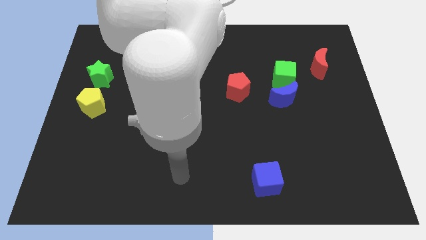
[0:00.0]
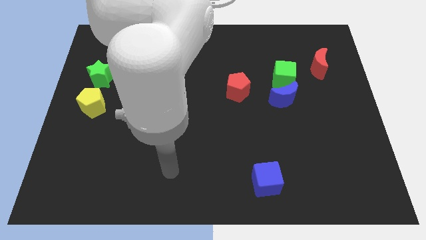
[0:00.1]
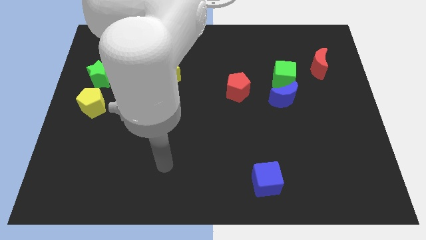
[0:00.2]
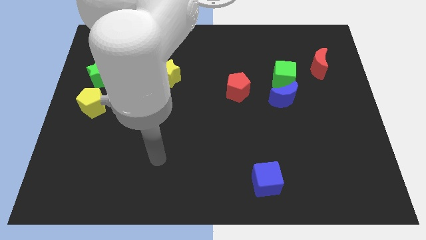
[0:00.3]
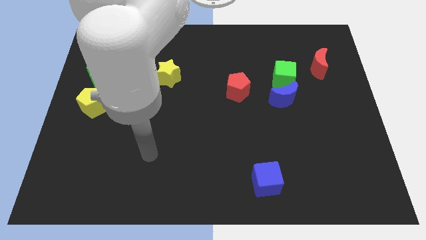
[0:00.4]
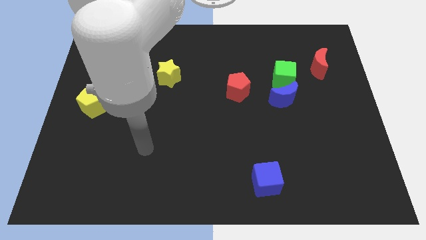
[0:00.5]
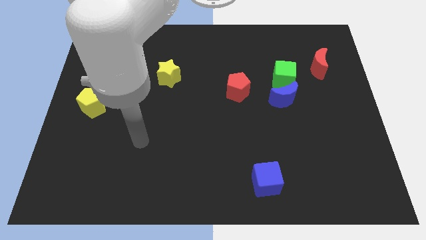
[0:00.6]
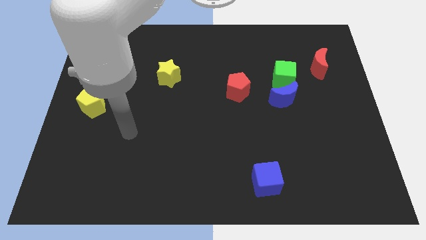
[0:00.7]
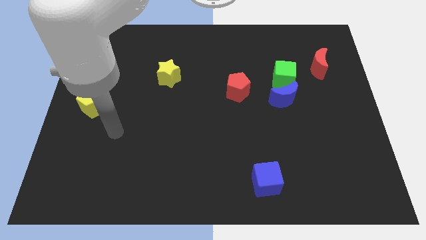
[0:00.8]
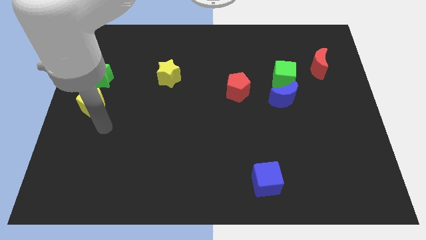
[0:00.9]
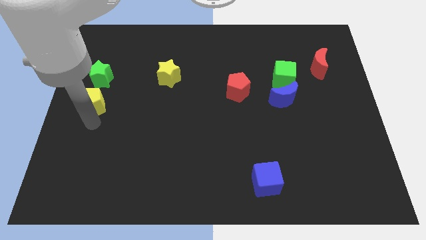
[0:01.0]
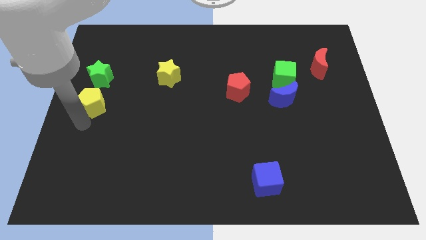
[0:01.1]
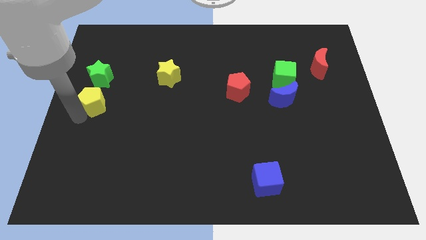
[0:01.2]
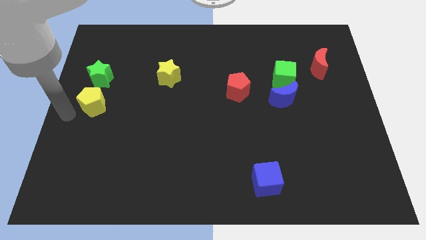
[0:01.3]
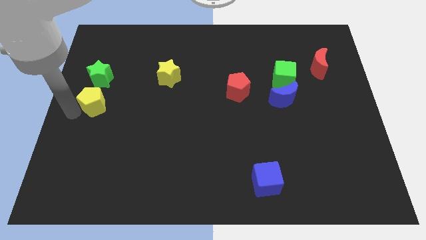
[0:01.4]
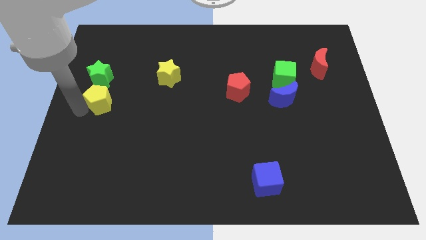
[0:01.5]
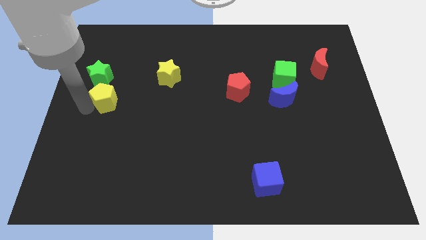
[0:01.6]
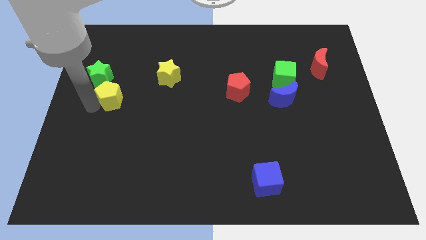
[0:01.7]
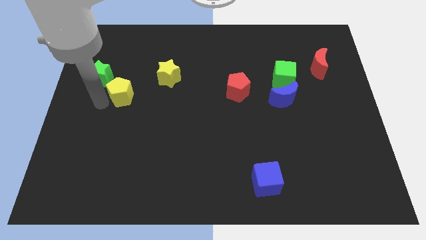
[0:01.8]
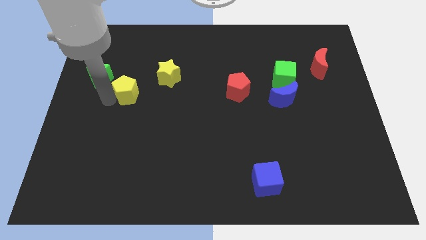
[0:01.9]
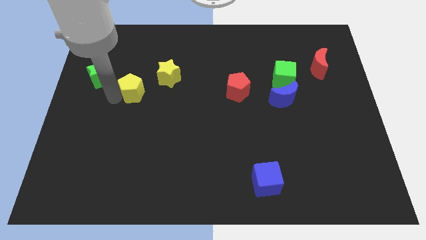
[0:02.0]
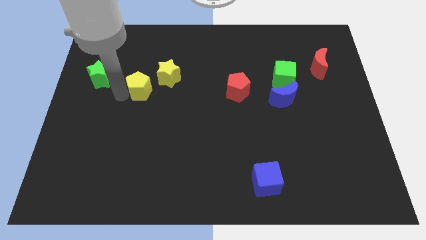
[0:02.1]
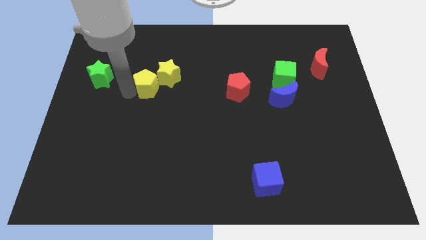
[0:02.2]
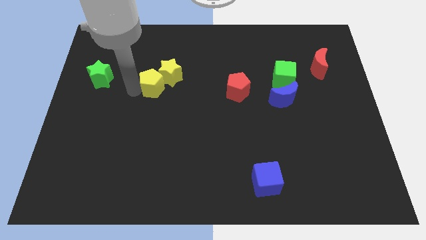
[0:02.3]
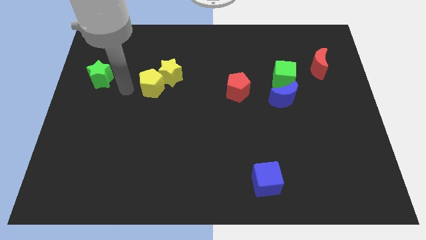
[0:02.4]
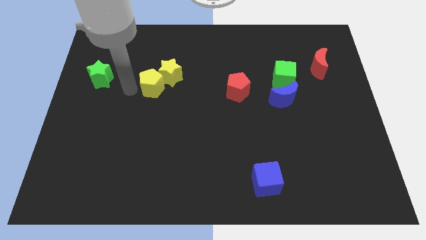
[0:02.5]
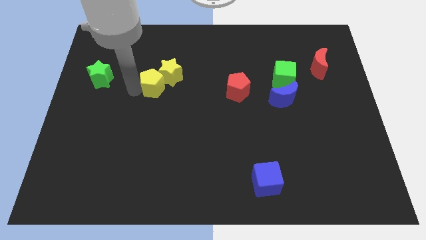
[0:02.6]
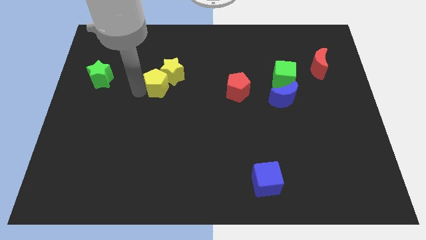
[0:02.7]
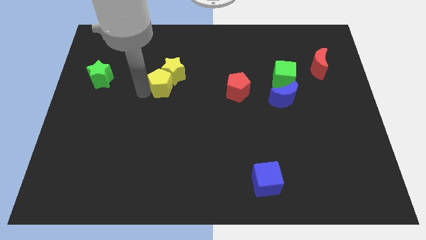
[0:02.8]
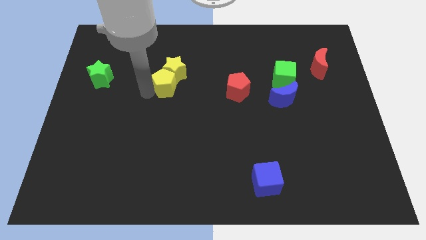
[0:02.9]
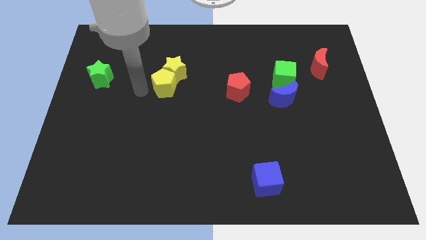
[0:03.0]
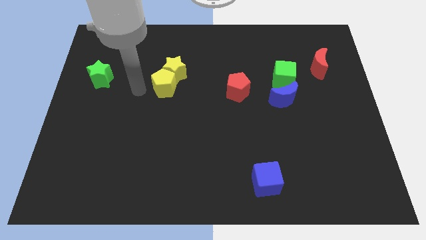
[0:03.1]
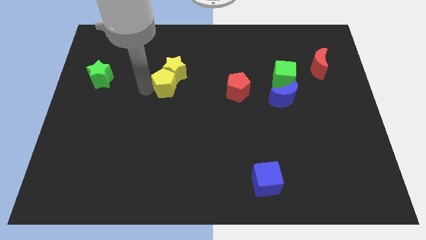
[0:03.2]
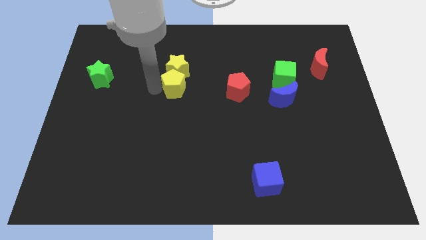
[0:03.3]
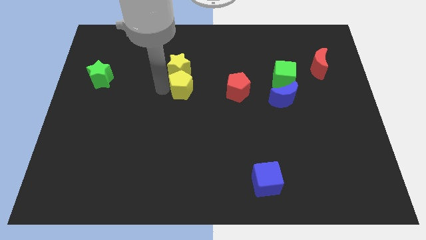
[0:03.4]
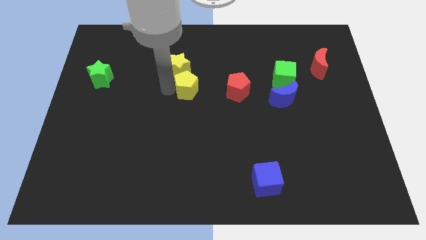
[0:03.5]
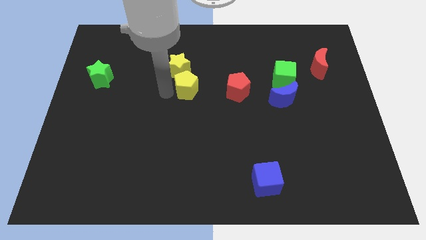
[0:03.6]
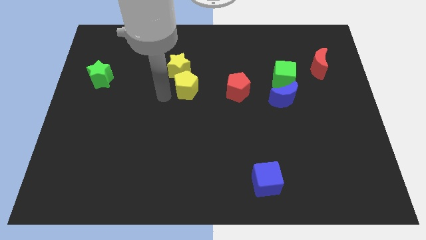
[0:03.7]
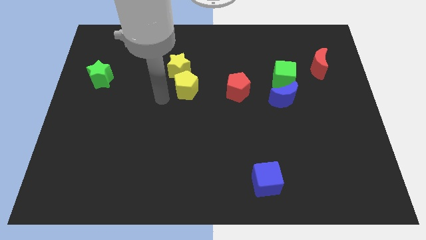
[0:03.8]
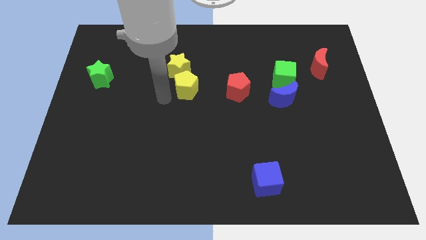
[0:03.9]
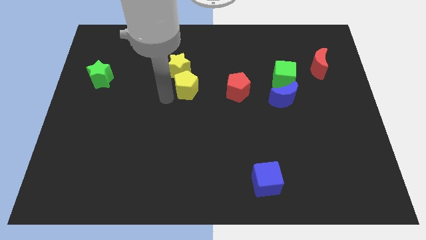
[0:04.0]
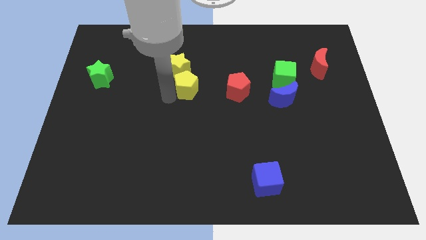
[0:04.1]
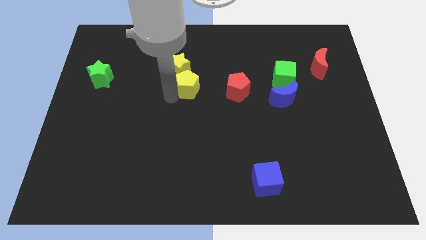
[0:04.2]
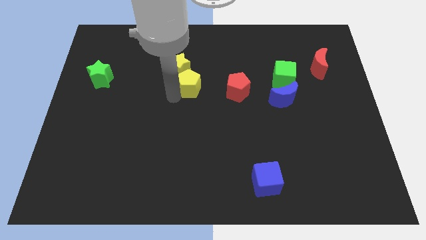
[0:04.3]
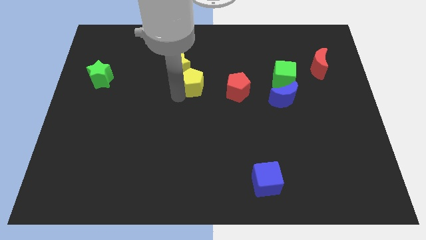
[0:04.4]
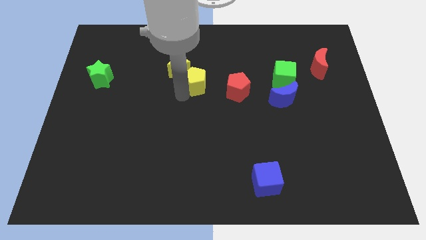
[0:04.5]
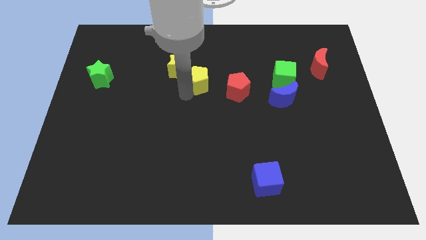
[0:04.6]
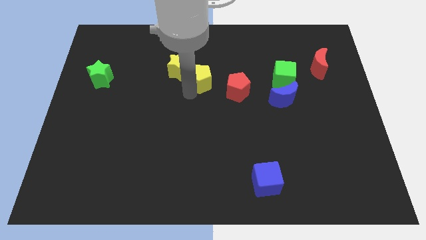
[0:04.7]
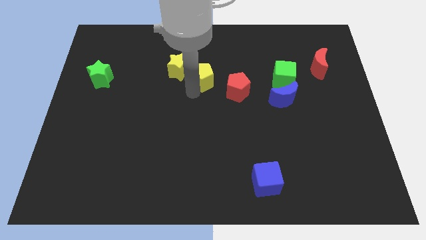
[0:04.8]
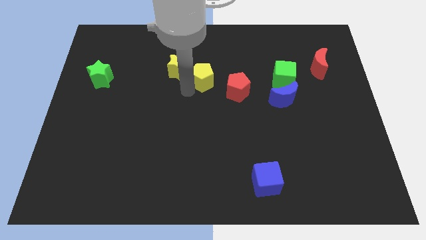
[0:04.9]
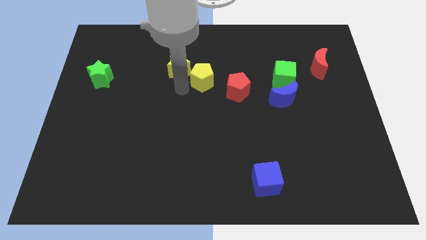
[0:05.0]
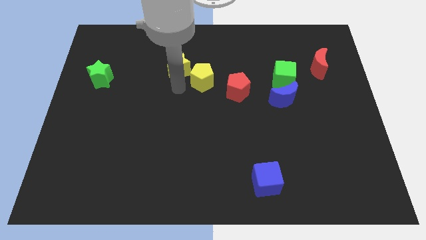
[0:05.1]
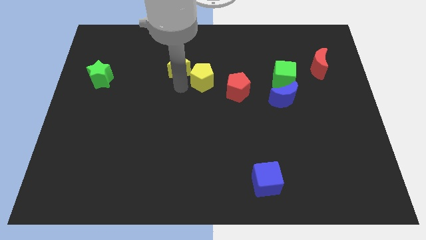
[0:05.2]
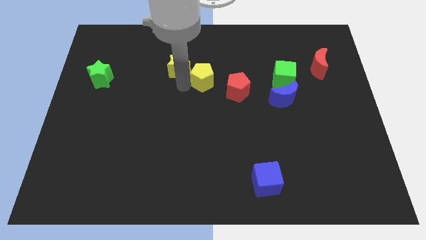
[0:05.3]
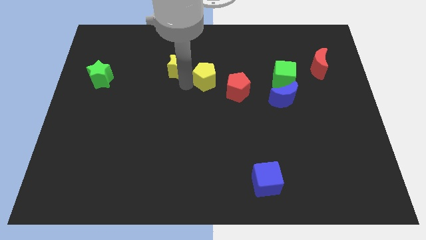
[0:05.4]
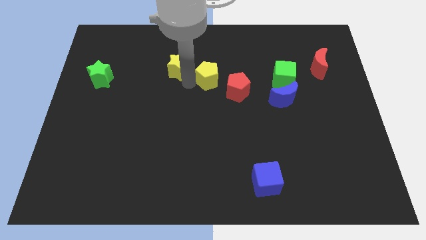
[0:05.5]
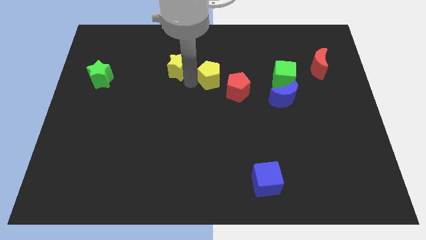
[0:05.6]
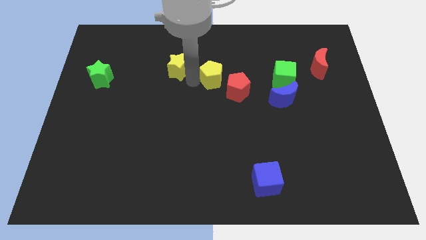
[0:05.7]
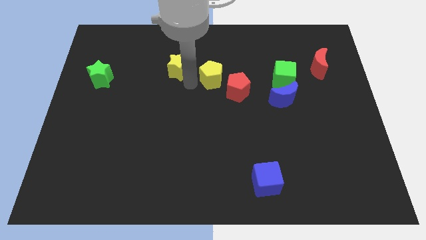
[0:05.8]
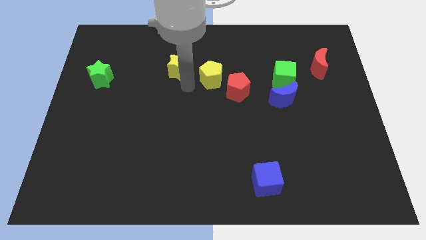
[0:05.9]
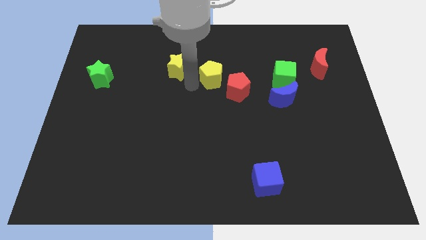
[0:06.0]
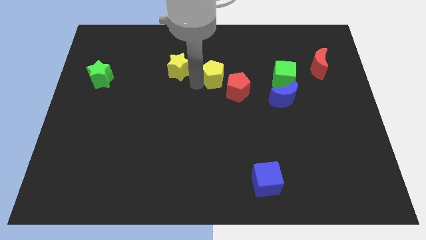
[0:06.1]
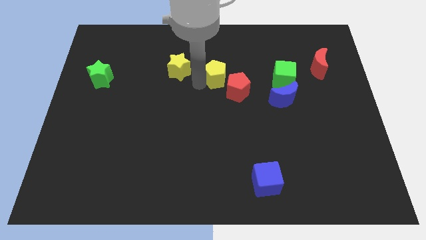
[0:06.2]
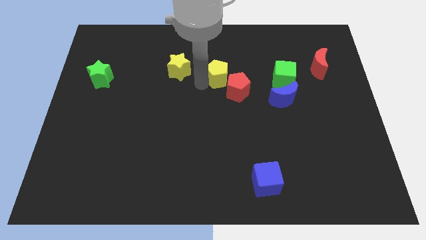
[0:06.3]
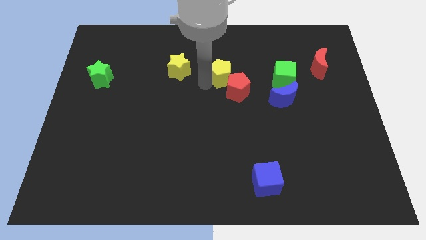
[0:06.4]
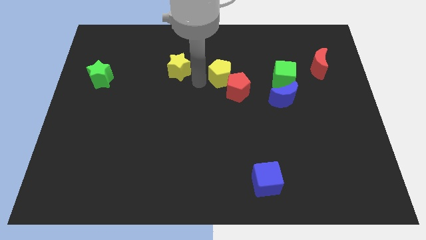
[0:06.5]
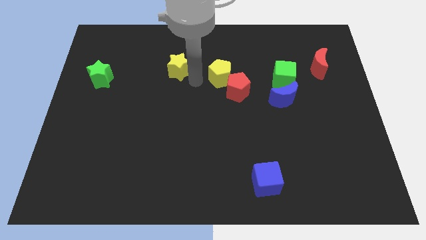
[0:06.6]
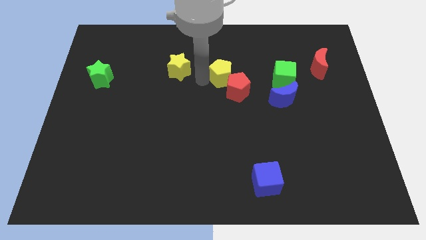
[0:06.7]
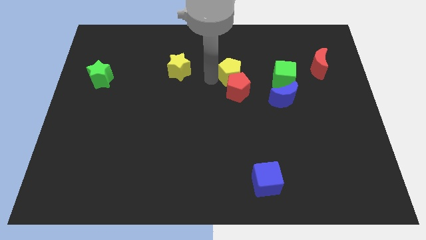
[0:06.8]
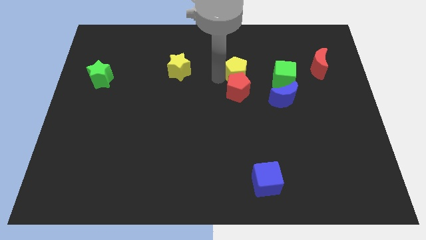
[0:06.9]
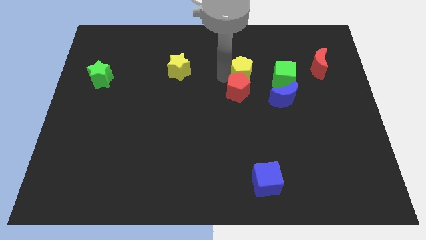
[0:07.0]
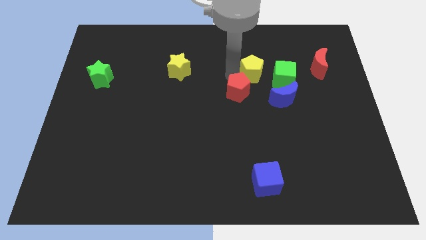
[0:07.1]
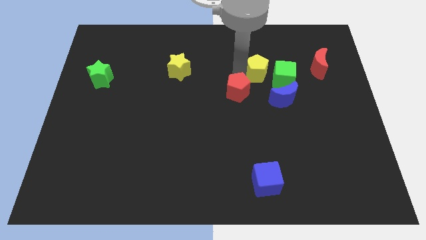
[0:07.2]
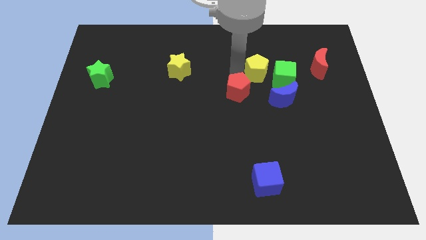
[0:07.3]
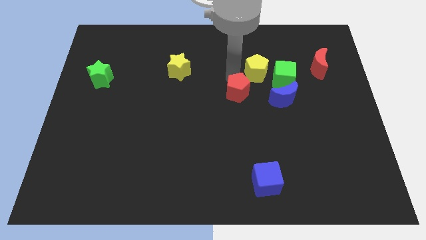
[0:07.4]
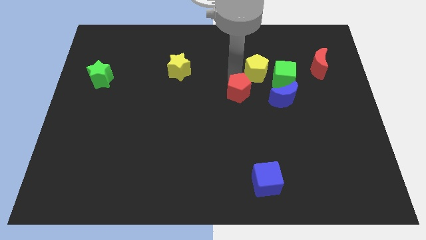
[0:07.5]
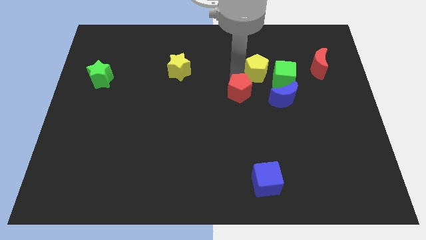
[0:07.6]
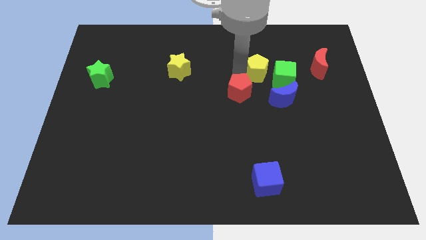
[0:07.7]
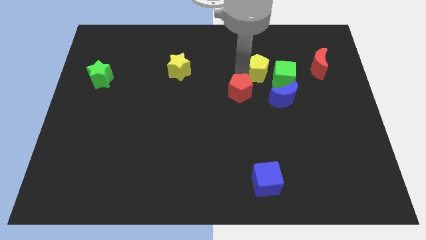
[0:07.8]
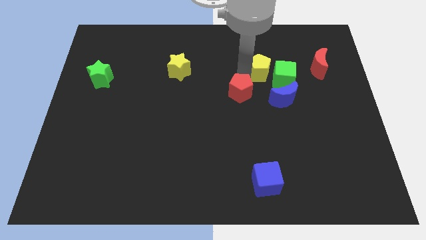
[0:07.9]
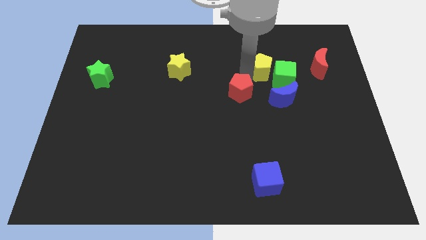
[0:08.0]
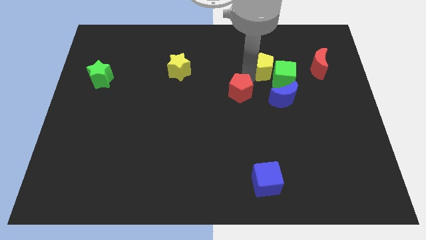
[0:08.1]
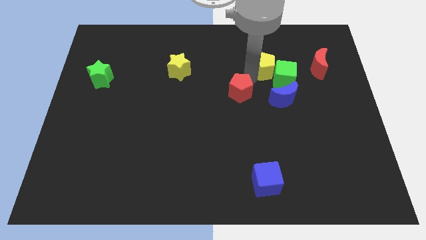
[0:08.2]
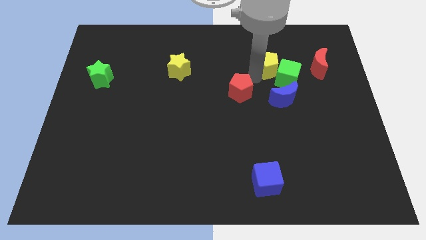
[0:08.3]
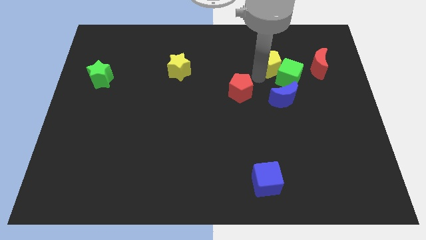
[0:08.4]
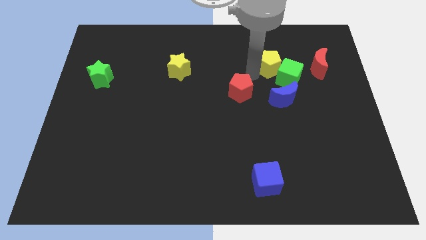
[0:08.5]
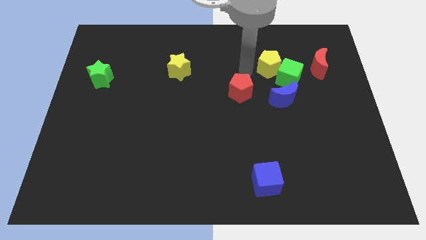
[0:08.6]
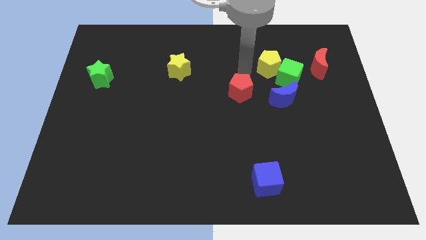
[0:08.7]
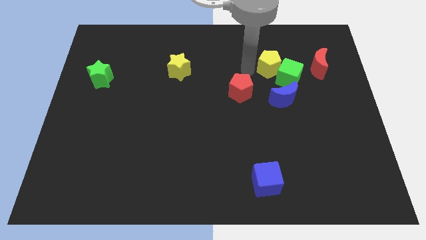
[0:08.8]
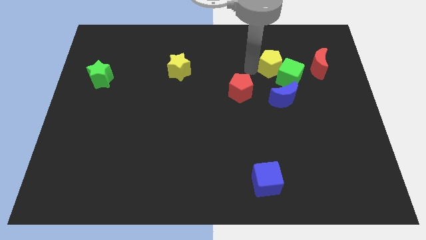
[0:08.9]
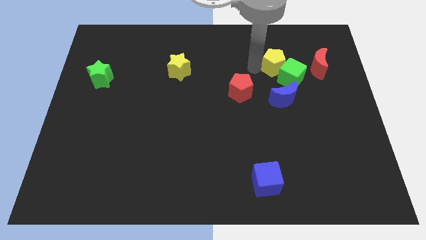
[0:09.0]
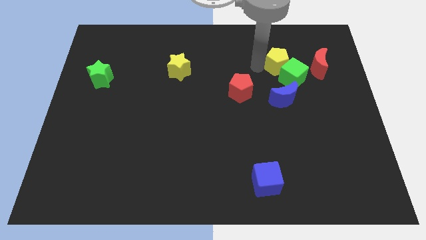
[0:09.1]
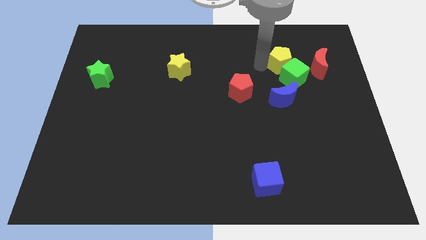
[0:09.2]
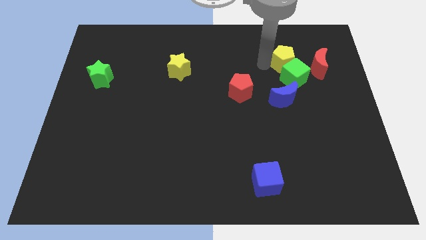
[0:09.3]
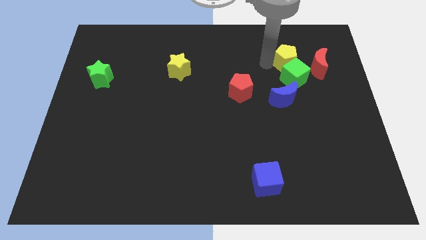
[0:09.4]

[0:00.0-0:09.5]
push the yellow pentagon to the top right side of the green cube
